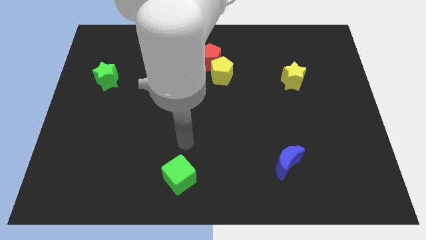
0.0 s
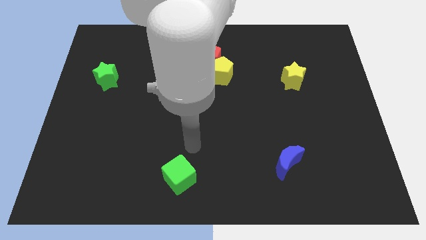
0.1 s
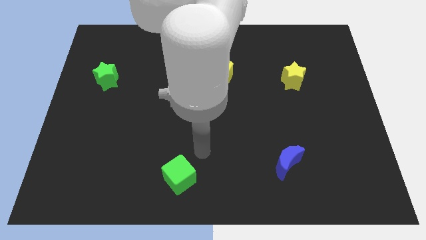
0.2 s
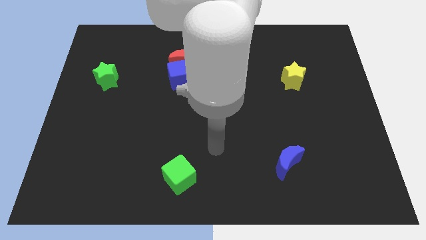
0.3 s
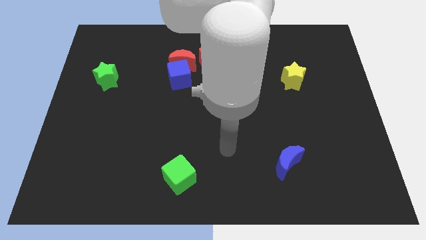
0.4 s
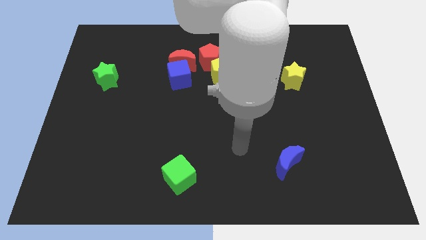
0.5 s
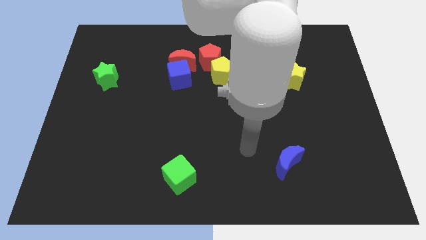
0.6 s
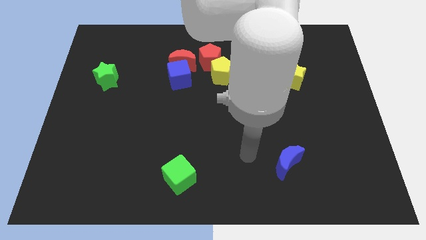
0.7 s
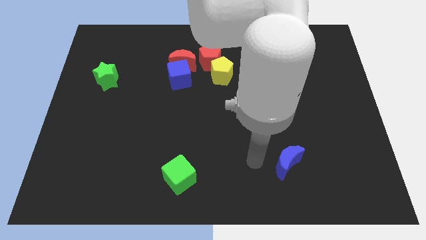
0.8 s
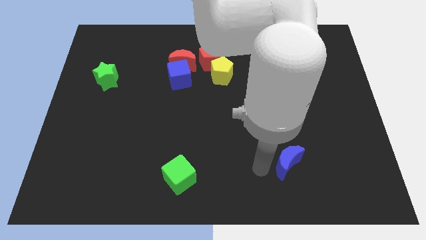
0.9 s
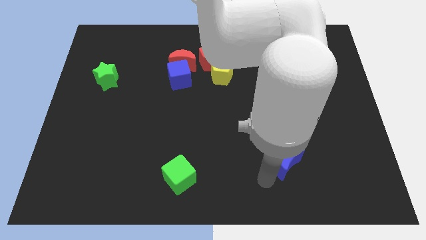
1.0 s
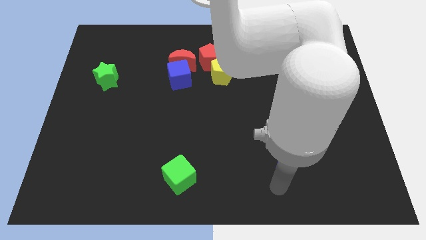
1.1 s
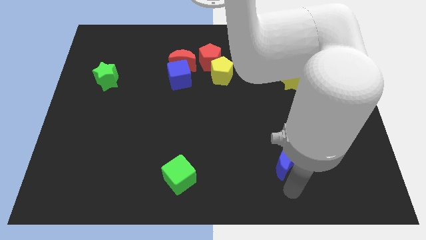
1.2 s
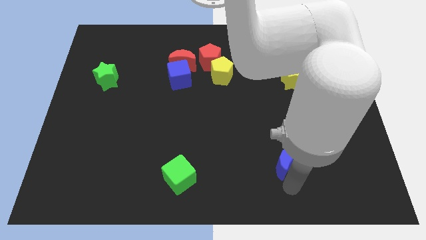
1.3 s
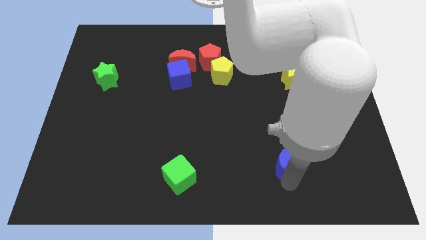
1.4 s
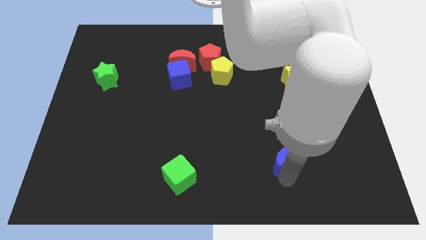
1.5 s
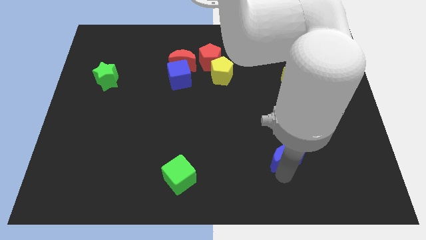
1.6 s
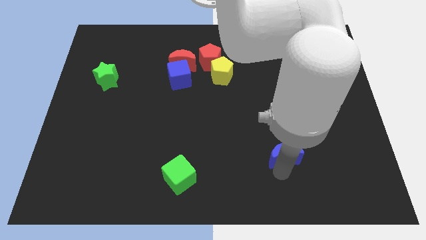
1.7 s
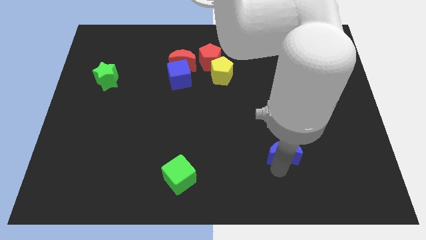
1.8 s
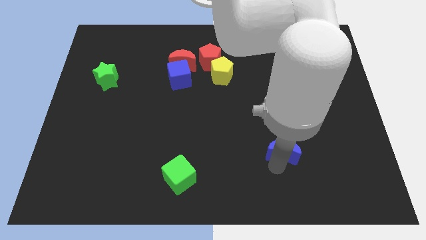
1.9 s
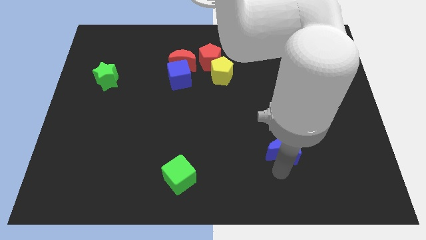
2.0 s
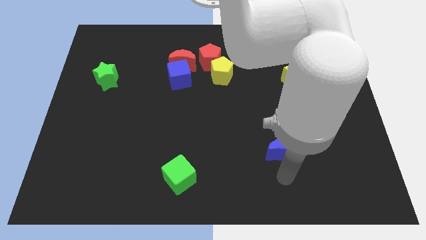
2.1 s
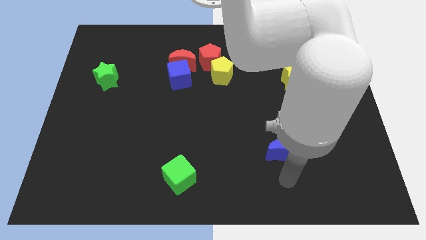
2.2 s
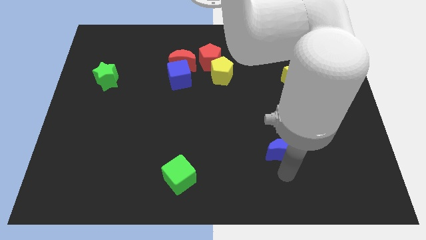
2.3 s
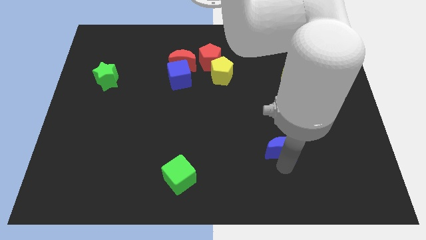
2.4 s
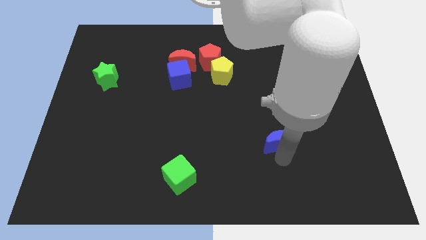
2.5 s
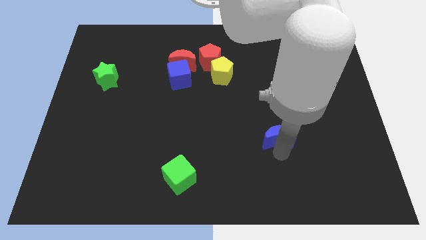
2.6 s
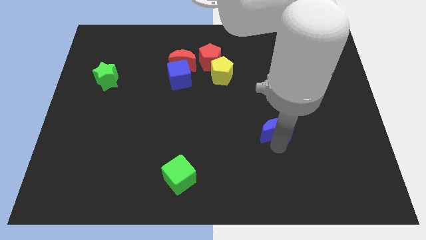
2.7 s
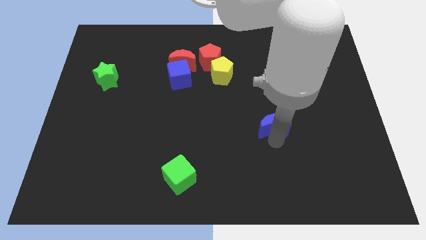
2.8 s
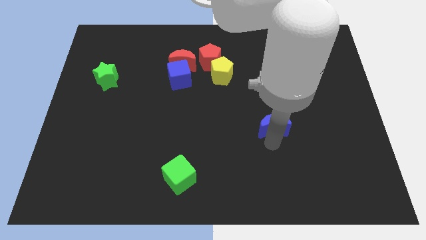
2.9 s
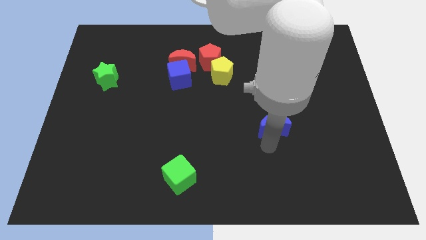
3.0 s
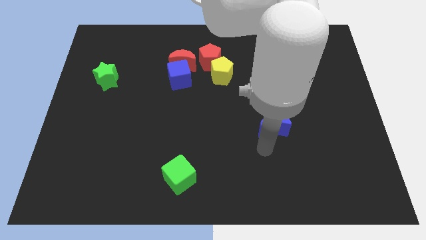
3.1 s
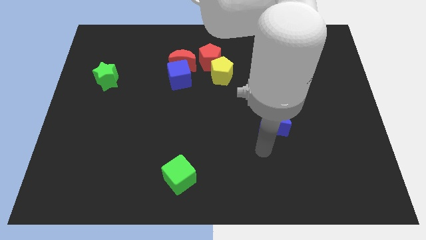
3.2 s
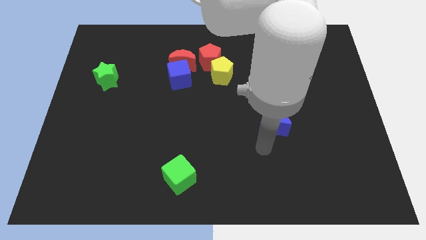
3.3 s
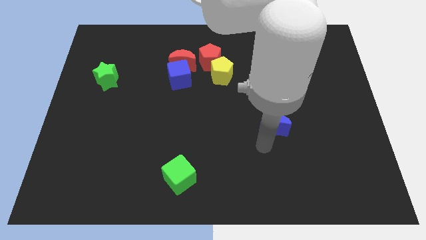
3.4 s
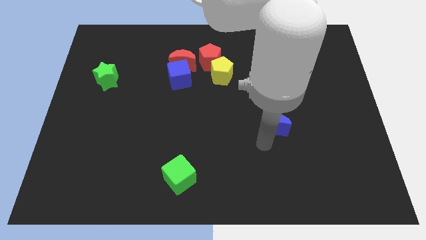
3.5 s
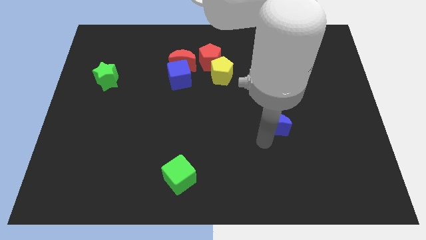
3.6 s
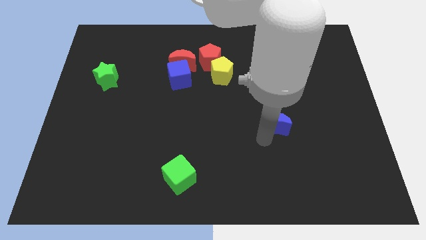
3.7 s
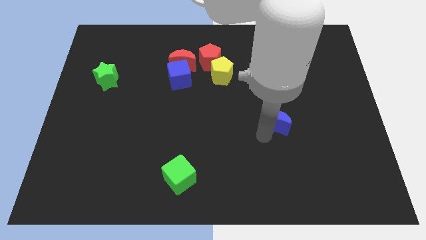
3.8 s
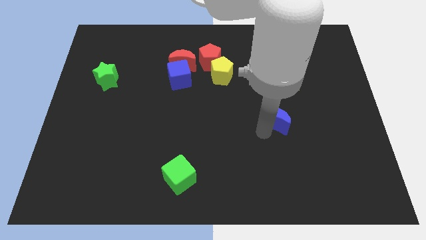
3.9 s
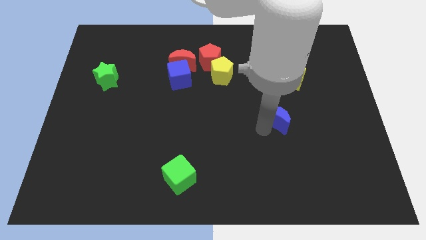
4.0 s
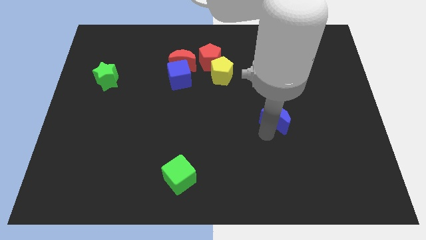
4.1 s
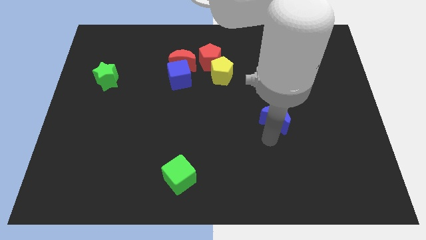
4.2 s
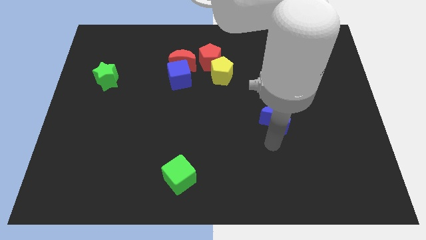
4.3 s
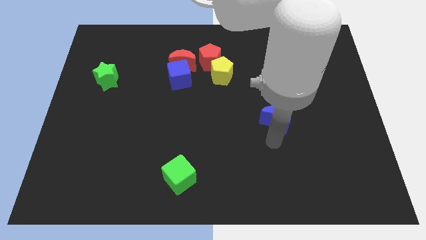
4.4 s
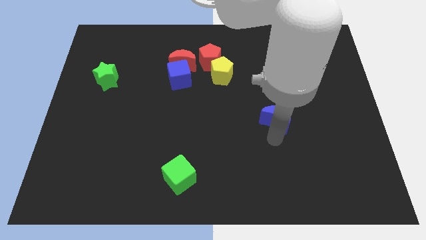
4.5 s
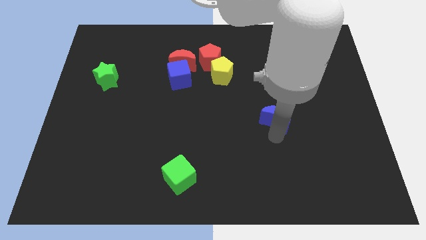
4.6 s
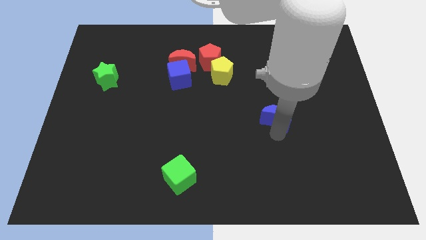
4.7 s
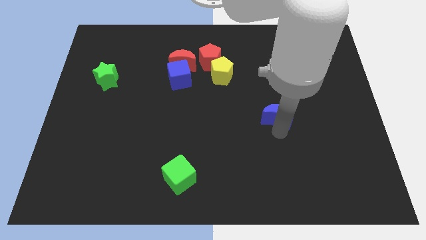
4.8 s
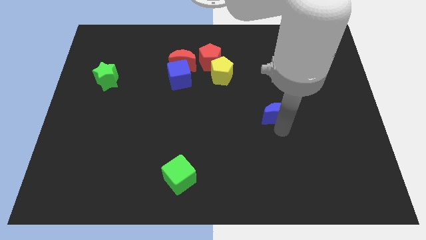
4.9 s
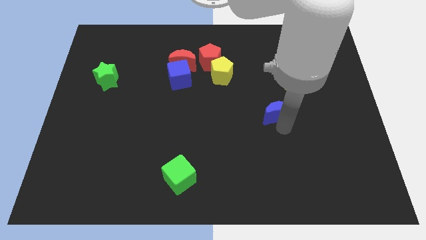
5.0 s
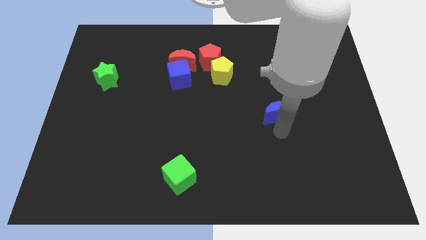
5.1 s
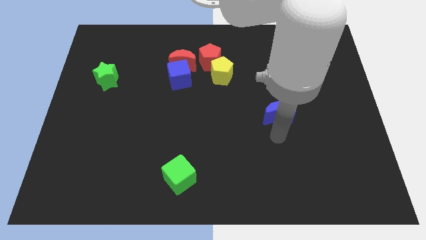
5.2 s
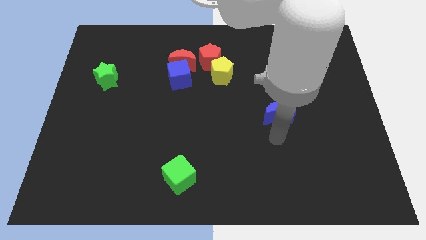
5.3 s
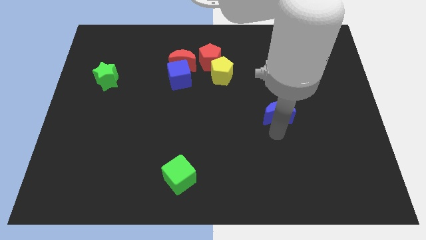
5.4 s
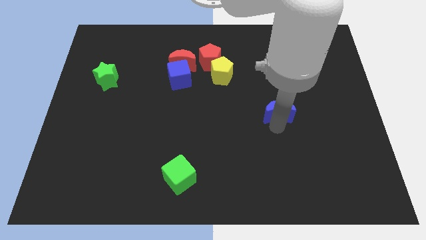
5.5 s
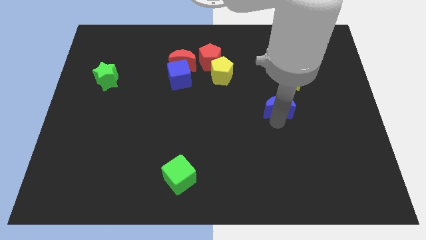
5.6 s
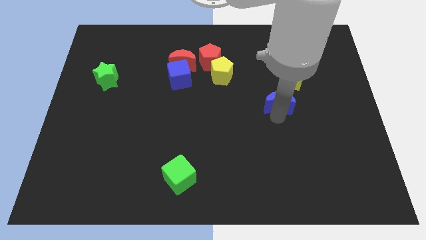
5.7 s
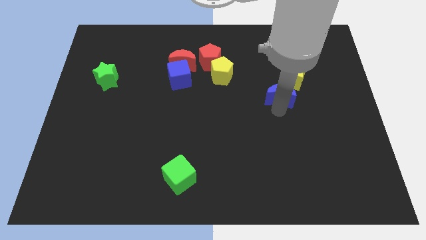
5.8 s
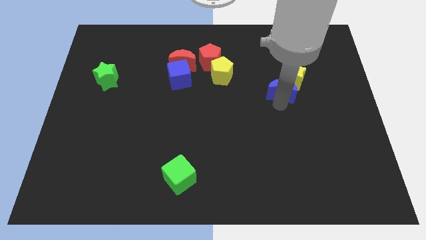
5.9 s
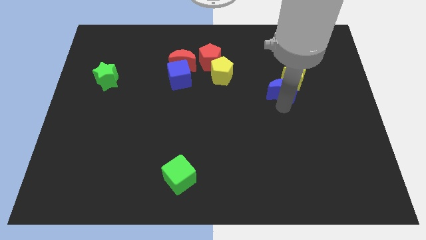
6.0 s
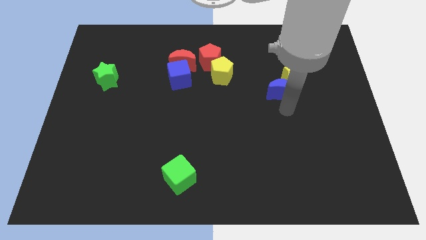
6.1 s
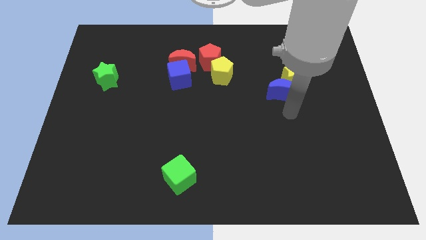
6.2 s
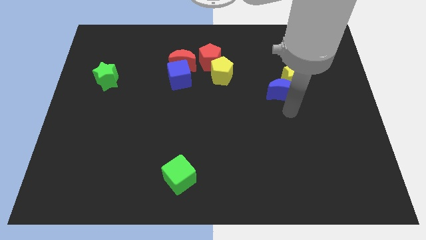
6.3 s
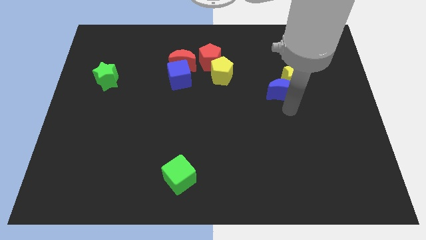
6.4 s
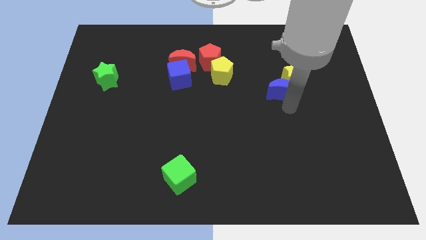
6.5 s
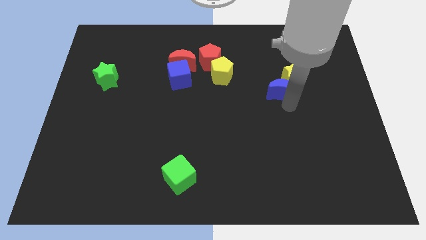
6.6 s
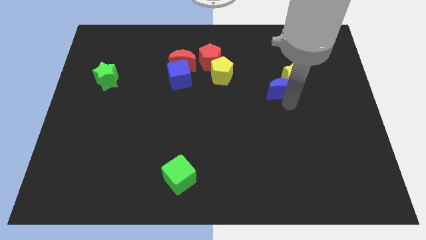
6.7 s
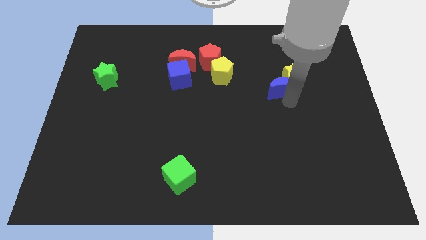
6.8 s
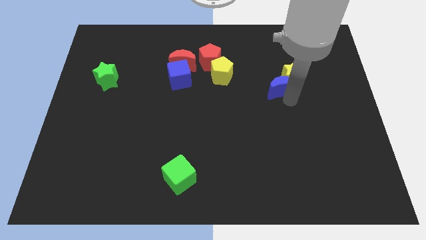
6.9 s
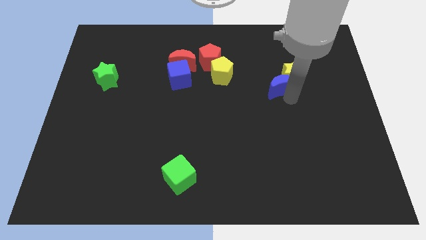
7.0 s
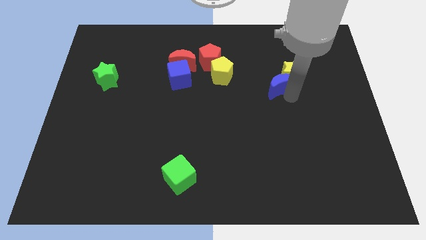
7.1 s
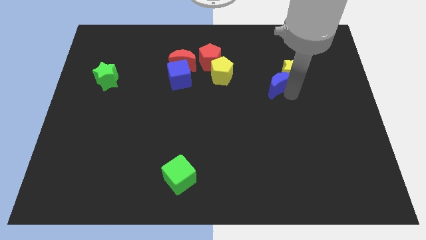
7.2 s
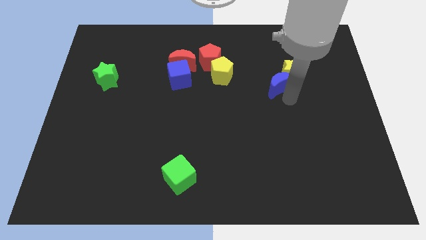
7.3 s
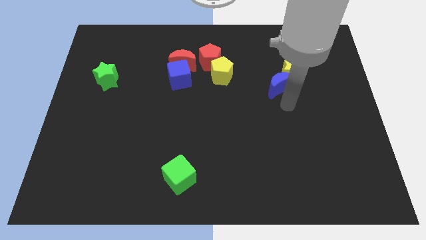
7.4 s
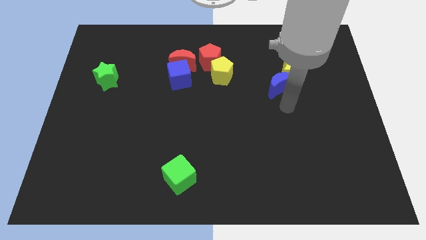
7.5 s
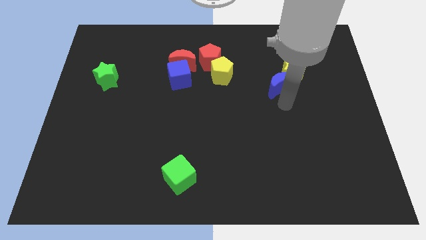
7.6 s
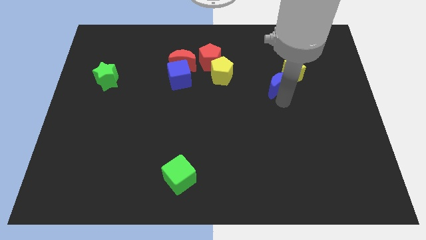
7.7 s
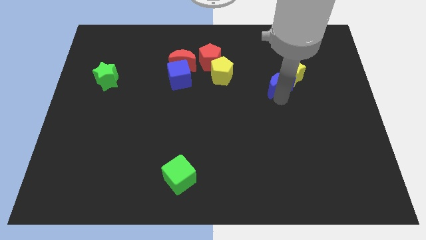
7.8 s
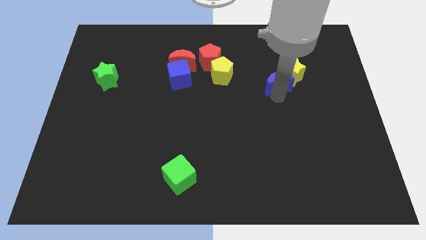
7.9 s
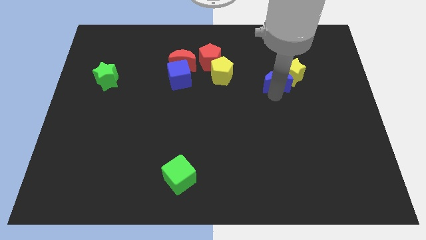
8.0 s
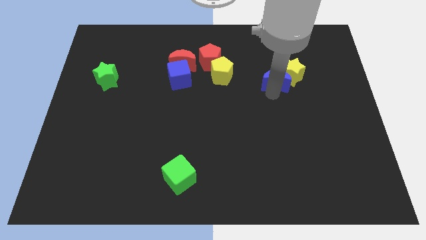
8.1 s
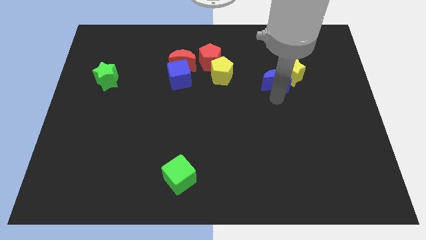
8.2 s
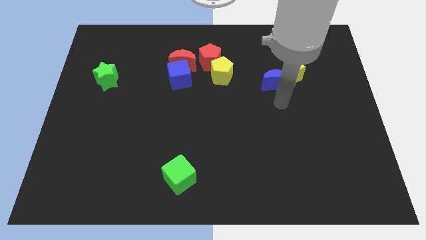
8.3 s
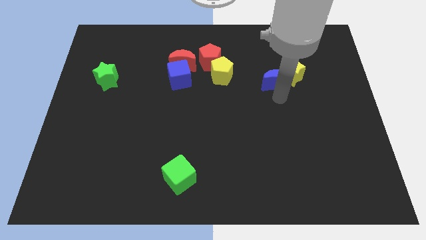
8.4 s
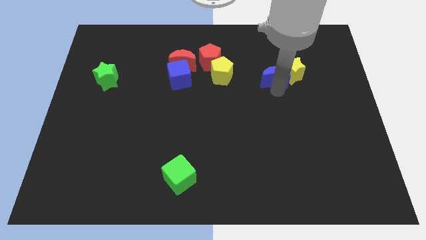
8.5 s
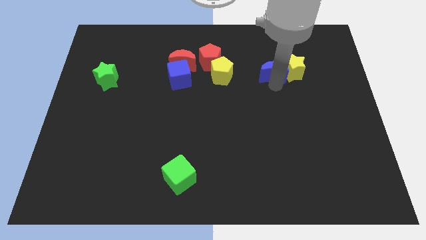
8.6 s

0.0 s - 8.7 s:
push the blue moon to the top left side of the yellow star
